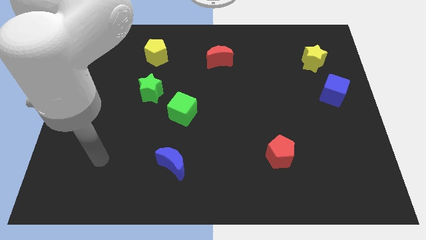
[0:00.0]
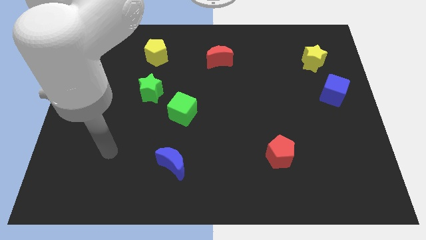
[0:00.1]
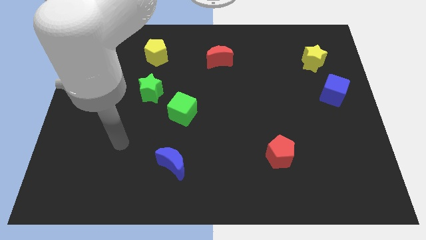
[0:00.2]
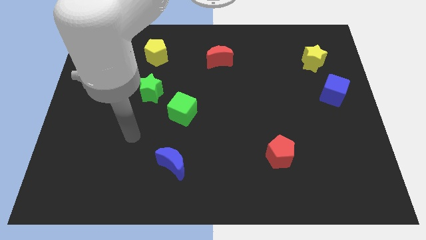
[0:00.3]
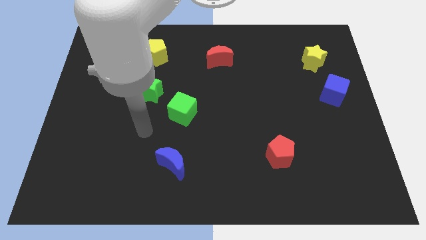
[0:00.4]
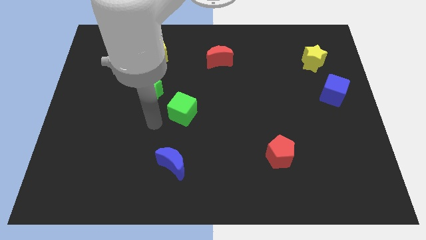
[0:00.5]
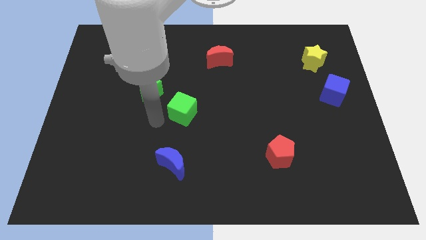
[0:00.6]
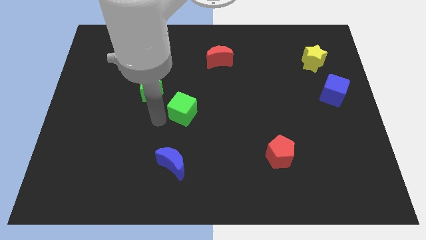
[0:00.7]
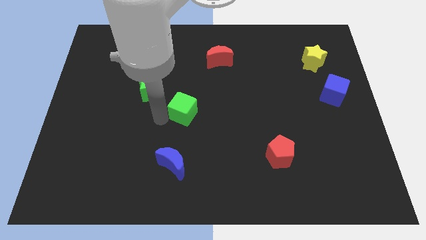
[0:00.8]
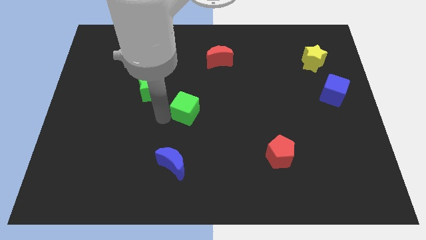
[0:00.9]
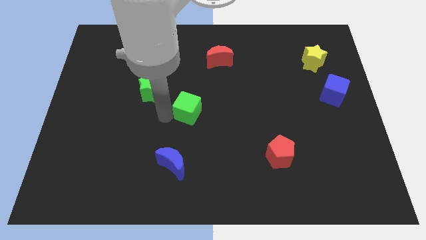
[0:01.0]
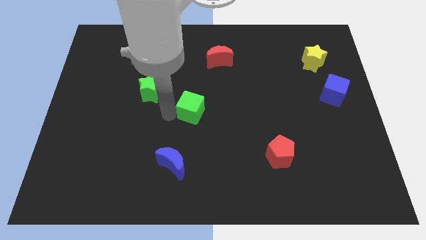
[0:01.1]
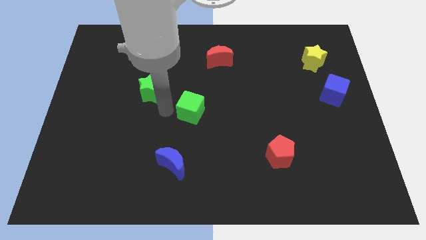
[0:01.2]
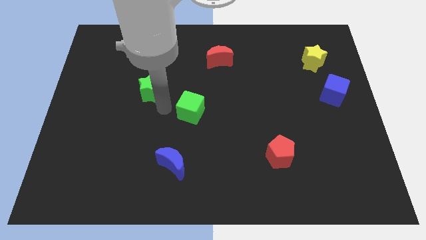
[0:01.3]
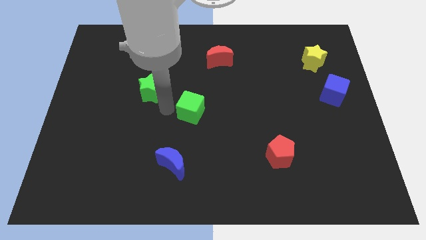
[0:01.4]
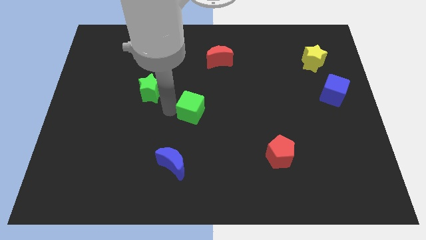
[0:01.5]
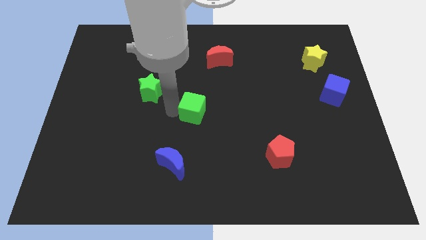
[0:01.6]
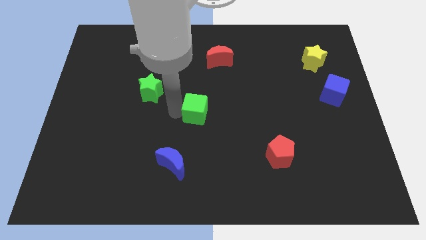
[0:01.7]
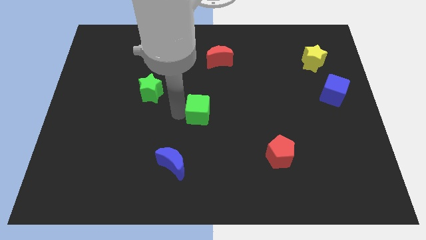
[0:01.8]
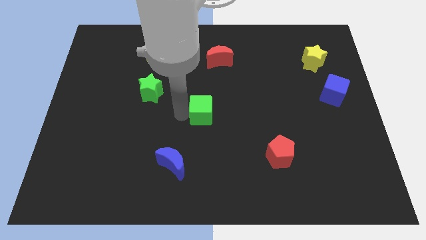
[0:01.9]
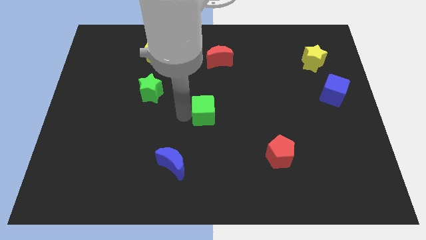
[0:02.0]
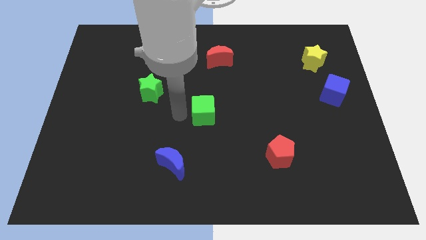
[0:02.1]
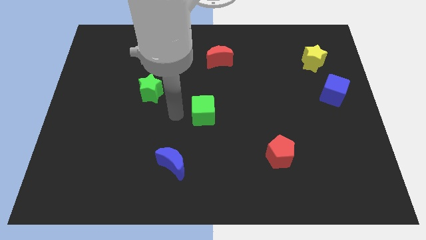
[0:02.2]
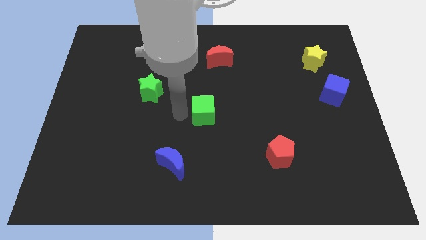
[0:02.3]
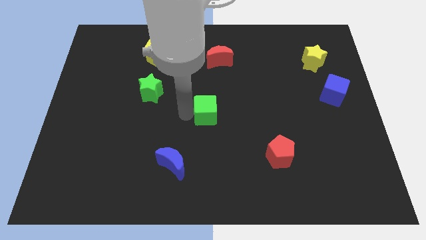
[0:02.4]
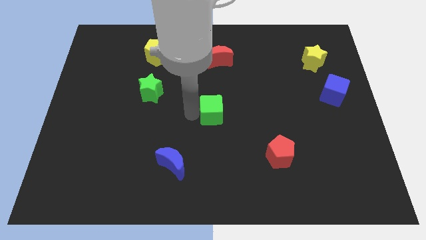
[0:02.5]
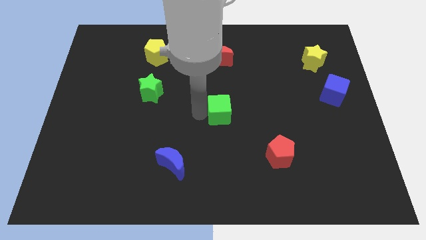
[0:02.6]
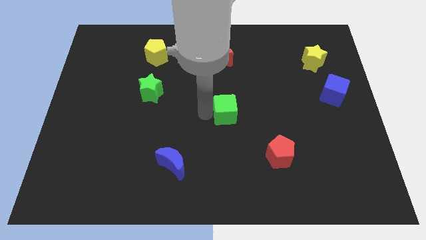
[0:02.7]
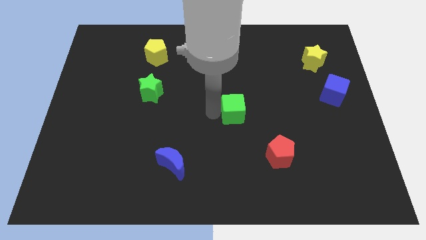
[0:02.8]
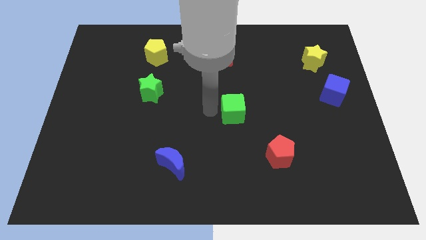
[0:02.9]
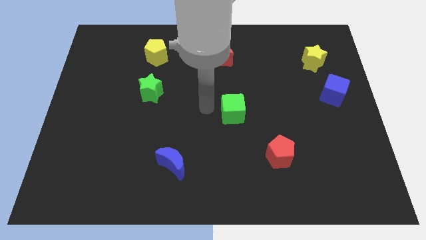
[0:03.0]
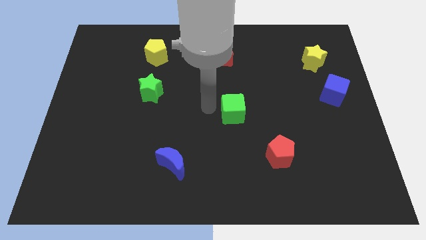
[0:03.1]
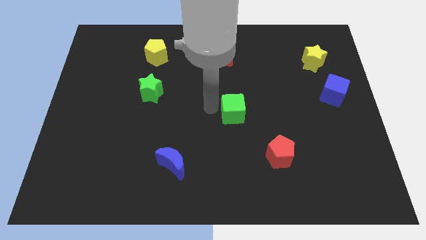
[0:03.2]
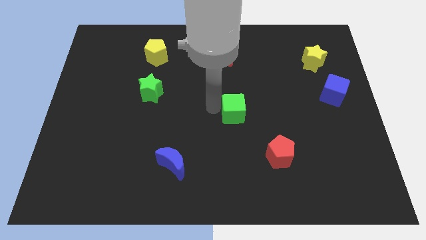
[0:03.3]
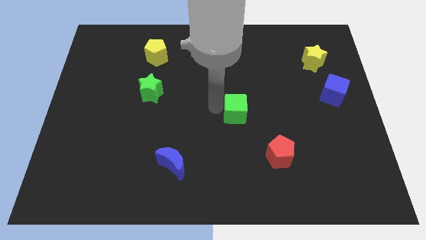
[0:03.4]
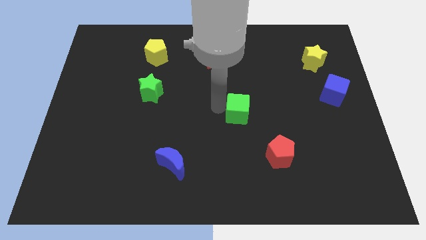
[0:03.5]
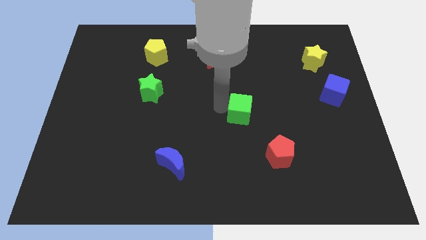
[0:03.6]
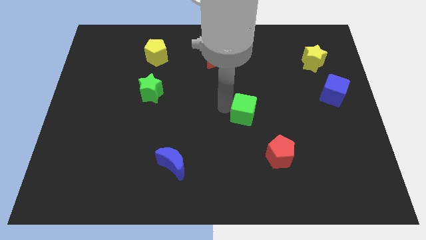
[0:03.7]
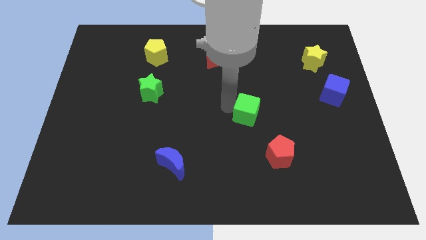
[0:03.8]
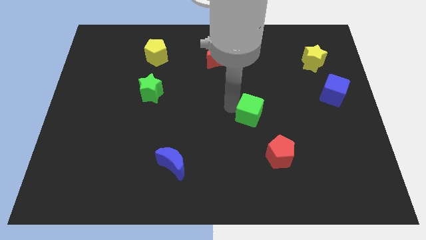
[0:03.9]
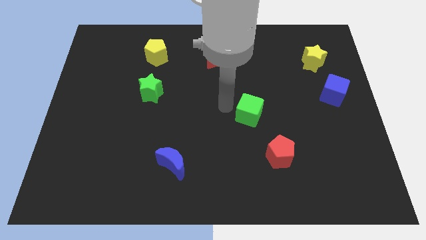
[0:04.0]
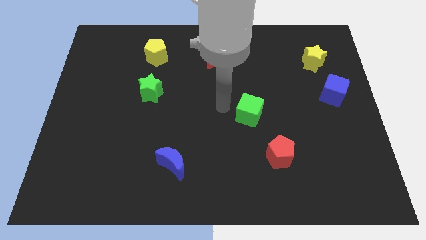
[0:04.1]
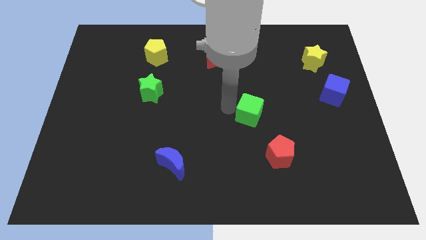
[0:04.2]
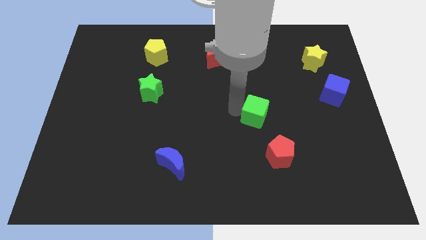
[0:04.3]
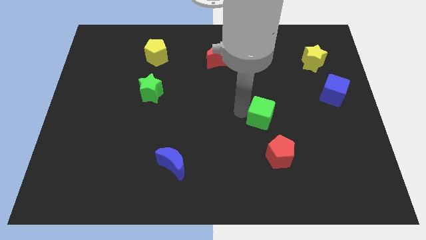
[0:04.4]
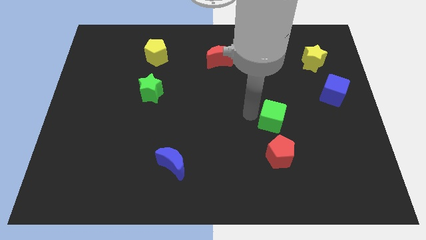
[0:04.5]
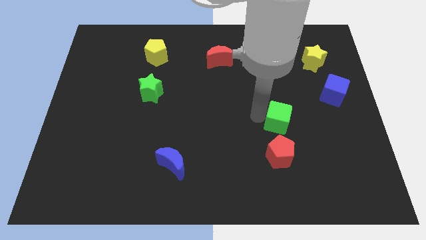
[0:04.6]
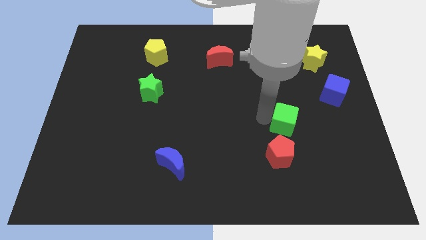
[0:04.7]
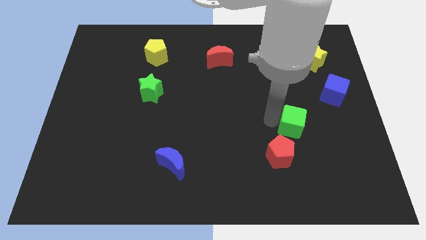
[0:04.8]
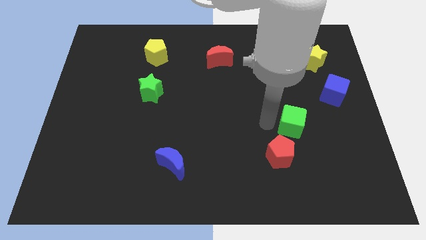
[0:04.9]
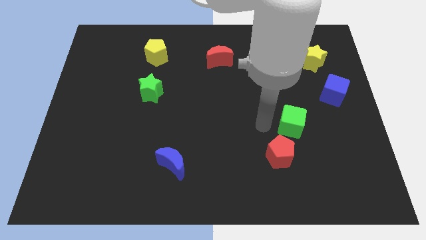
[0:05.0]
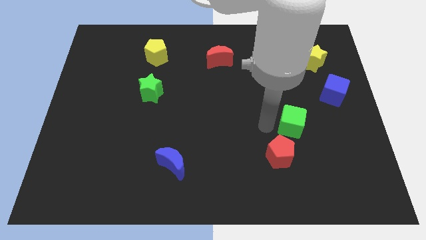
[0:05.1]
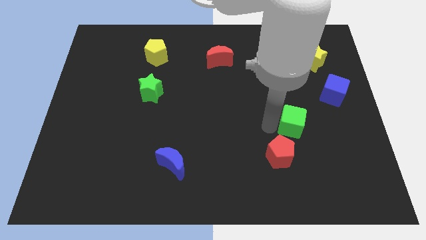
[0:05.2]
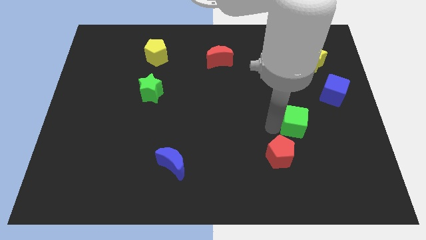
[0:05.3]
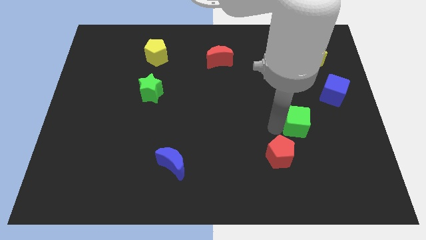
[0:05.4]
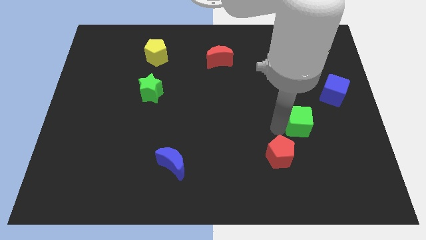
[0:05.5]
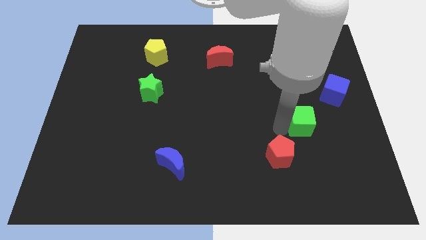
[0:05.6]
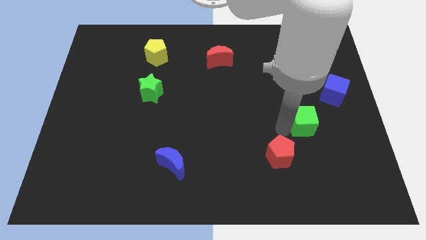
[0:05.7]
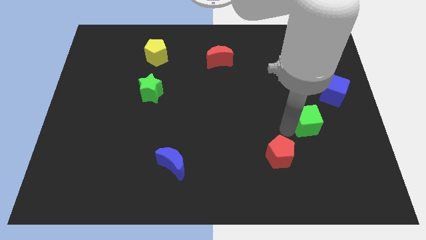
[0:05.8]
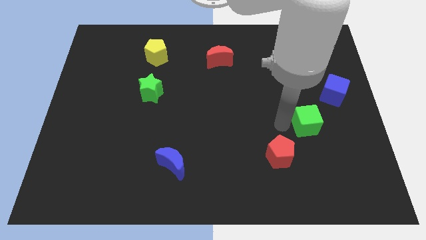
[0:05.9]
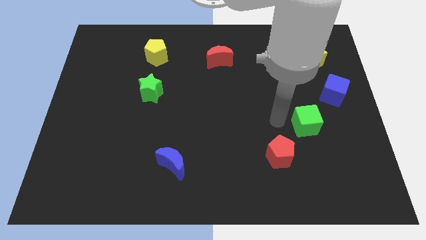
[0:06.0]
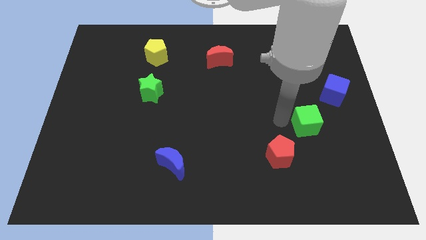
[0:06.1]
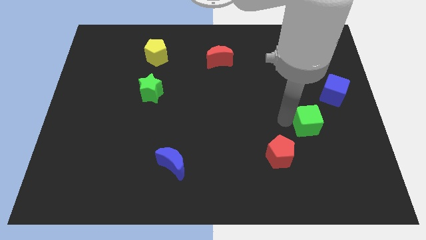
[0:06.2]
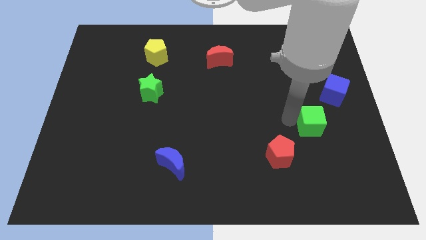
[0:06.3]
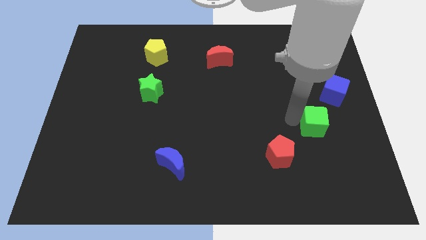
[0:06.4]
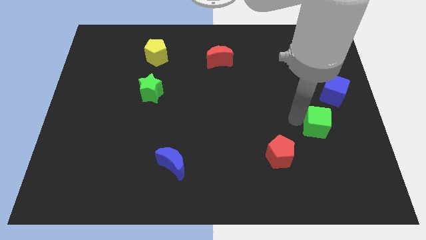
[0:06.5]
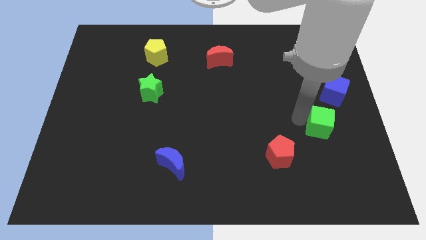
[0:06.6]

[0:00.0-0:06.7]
put the green cube below the blue cube

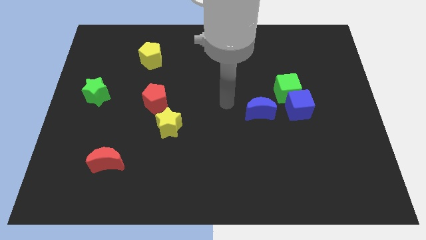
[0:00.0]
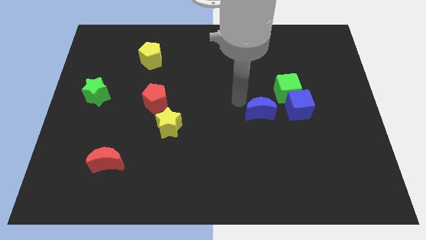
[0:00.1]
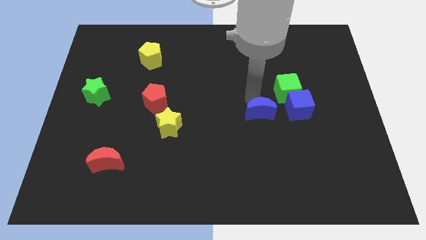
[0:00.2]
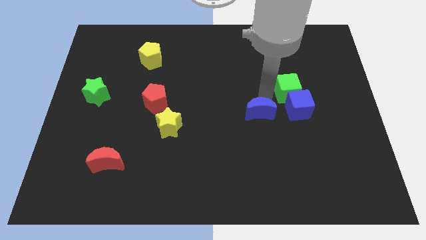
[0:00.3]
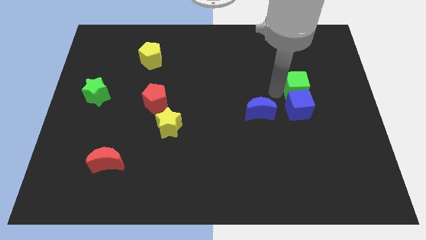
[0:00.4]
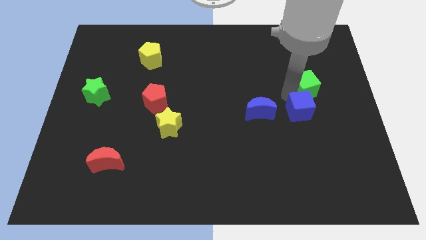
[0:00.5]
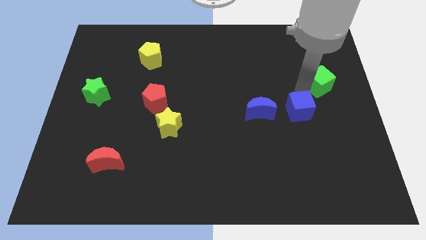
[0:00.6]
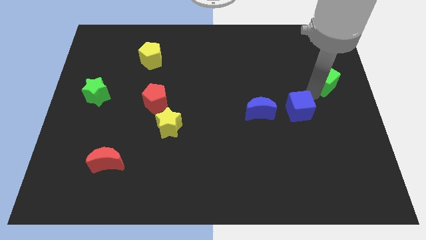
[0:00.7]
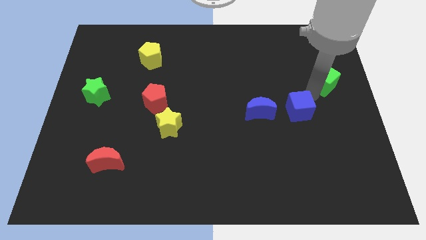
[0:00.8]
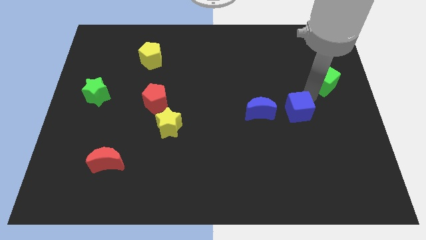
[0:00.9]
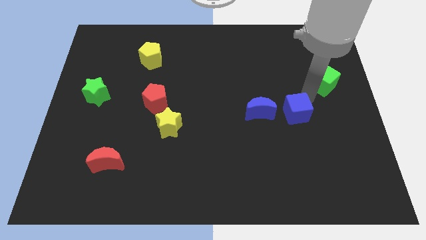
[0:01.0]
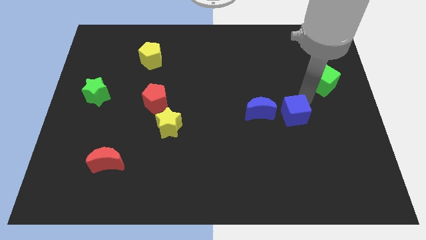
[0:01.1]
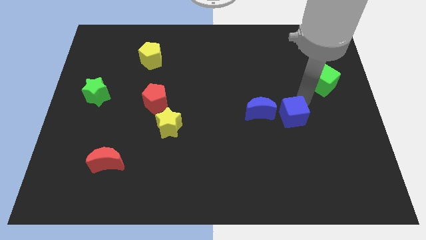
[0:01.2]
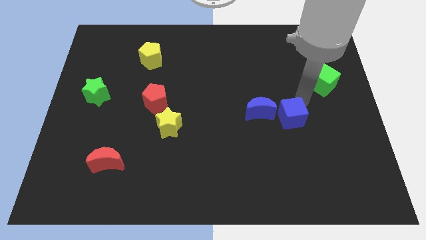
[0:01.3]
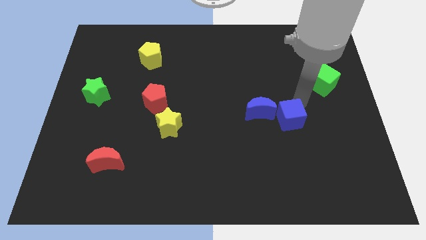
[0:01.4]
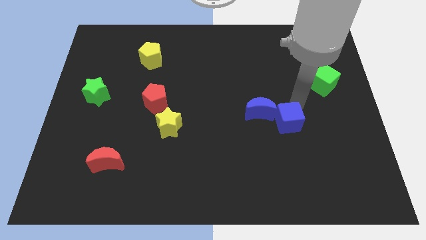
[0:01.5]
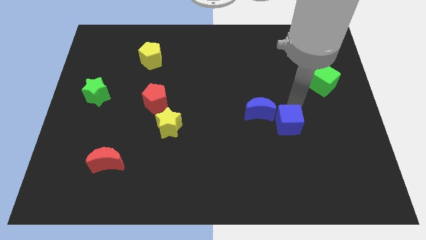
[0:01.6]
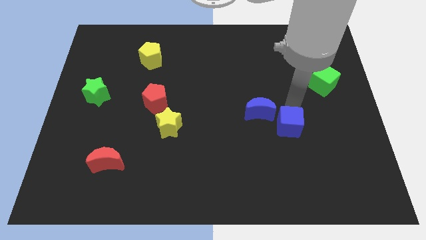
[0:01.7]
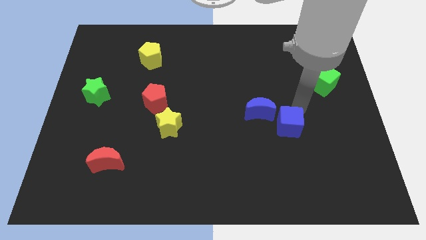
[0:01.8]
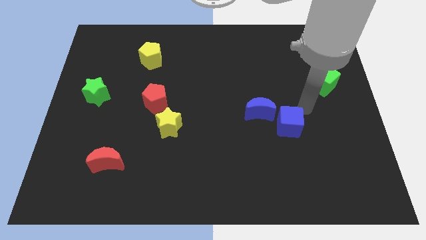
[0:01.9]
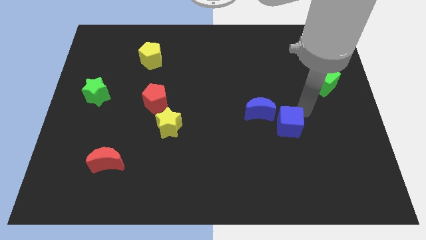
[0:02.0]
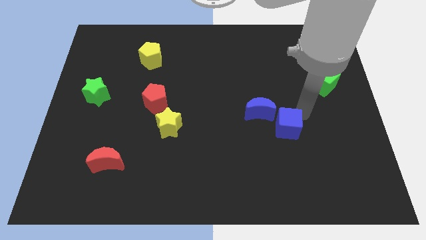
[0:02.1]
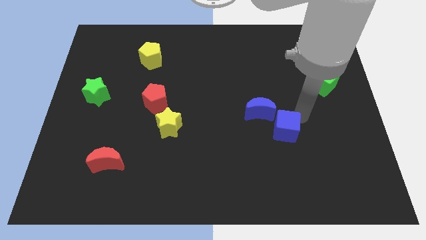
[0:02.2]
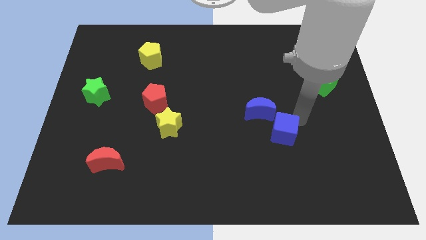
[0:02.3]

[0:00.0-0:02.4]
push the blue cube below the blue moon
